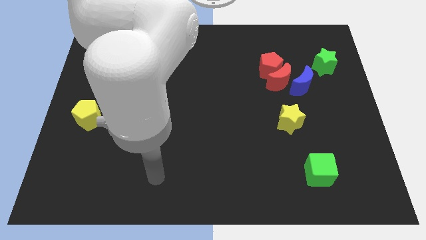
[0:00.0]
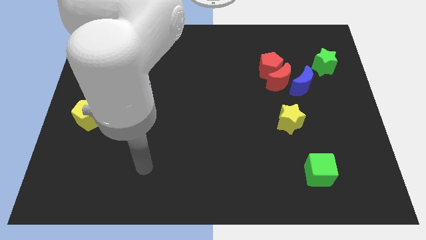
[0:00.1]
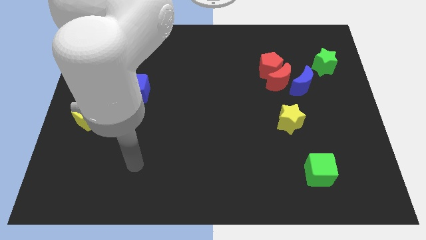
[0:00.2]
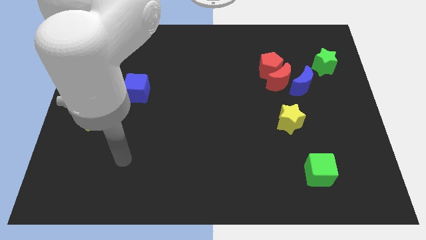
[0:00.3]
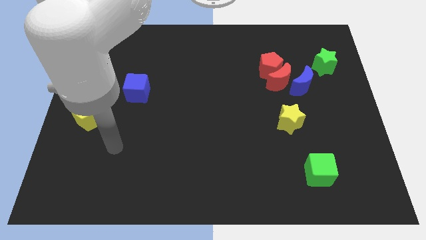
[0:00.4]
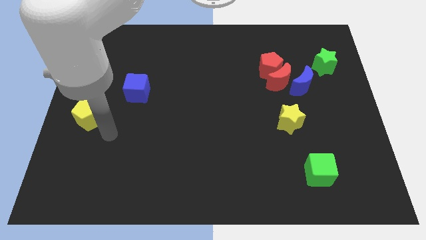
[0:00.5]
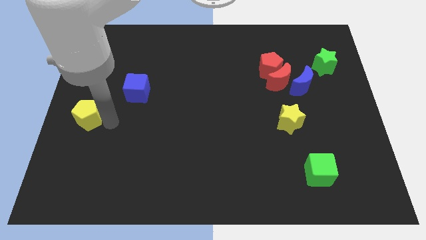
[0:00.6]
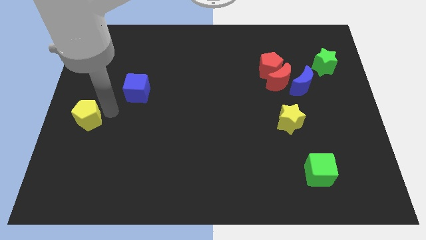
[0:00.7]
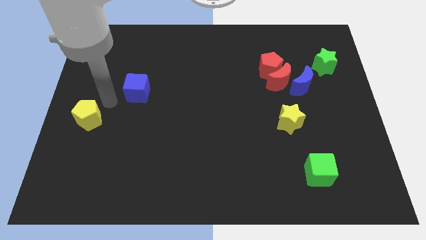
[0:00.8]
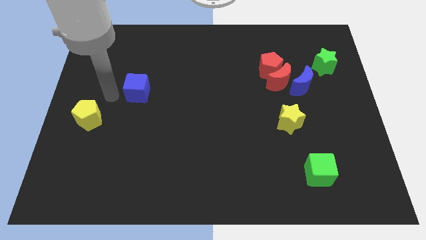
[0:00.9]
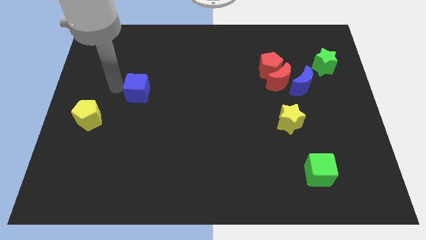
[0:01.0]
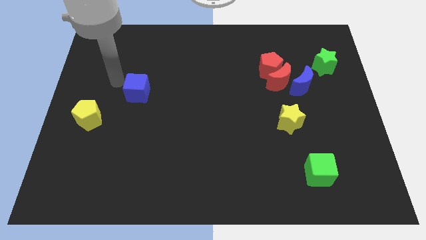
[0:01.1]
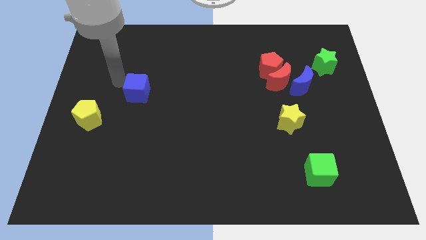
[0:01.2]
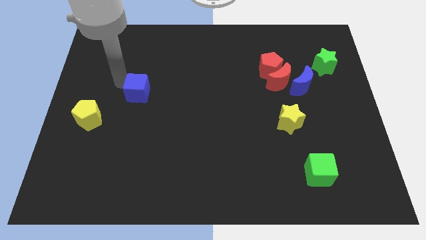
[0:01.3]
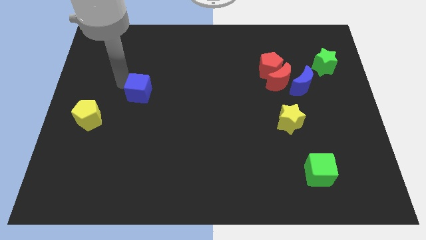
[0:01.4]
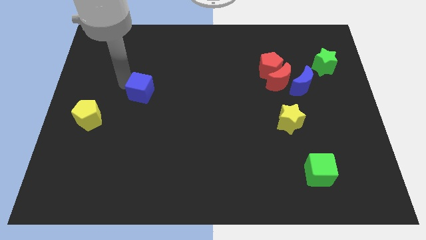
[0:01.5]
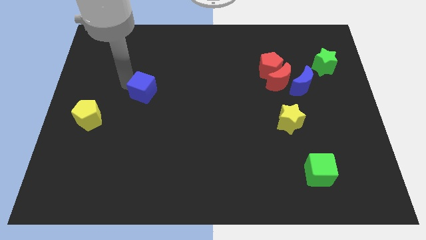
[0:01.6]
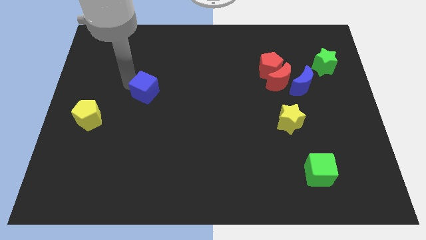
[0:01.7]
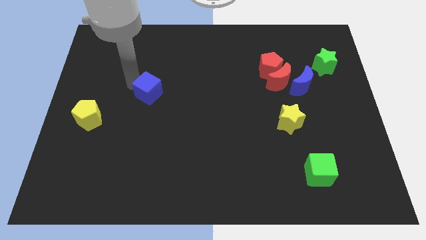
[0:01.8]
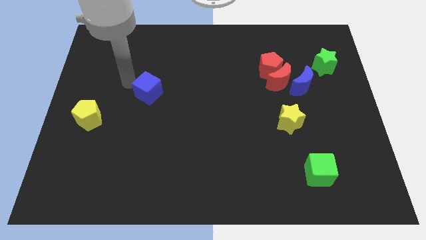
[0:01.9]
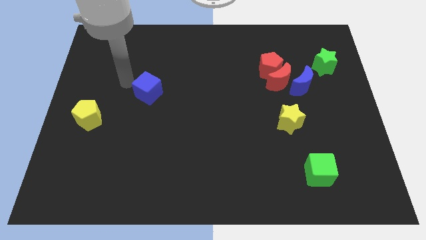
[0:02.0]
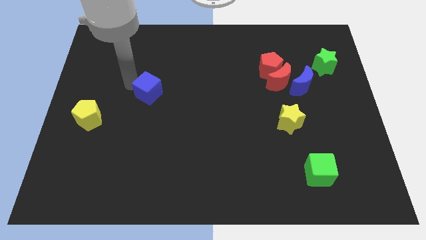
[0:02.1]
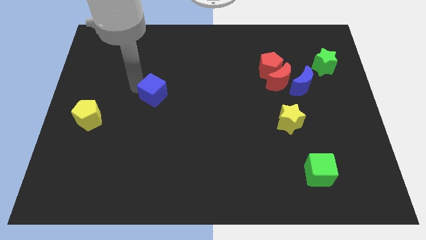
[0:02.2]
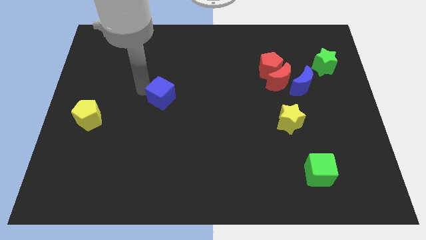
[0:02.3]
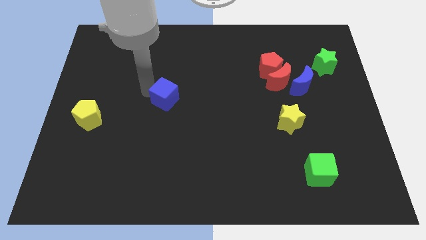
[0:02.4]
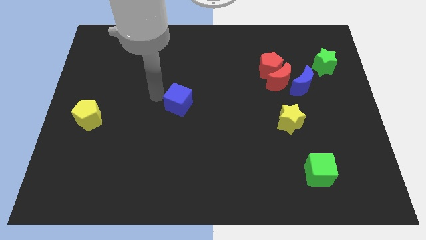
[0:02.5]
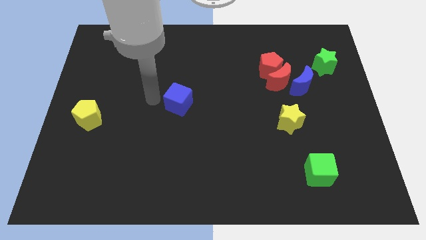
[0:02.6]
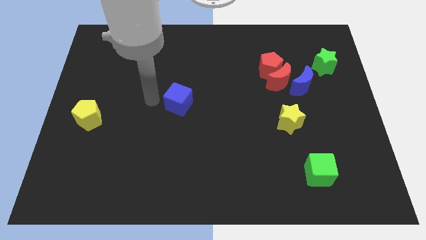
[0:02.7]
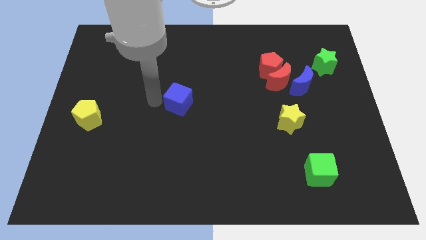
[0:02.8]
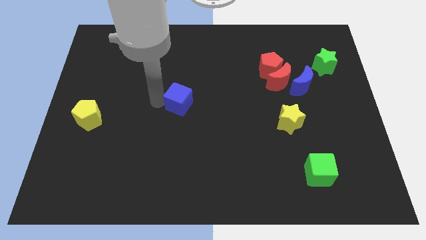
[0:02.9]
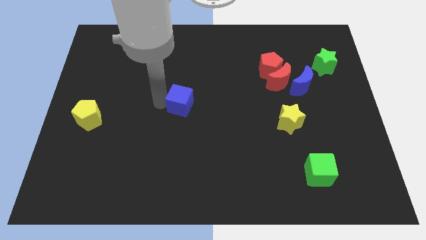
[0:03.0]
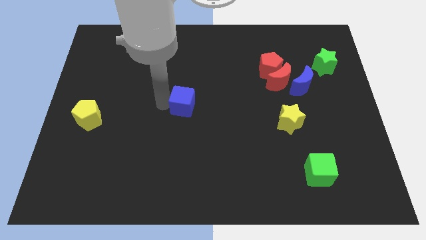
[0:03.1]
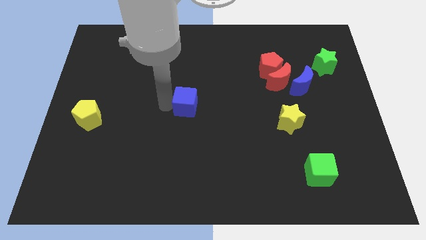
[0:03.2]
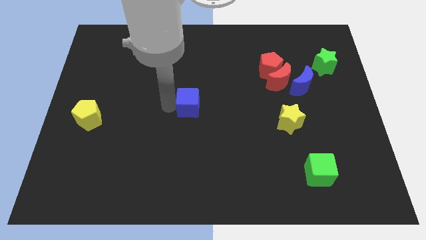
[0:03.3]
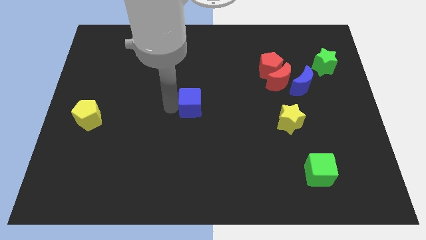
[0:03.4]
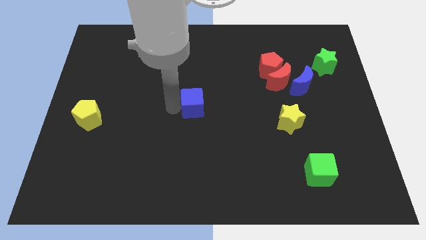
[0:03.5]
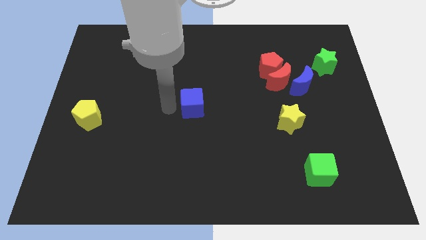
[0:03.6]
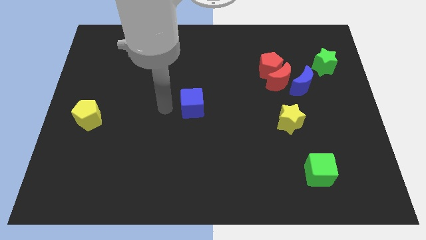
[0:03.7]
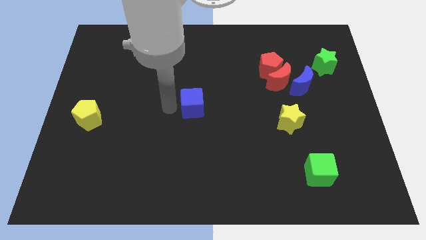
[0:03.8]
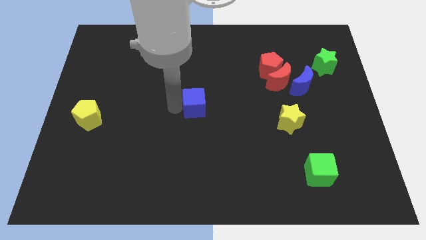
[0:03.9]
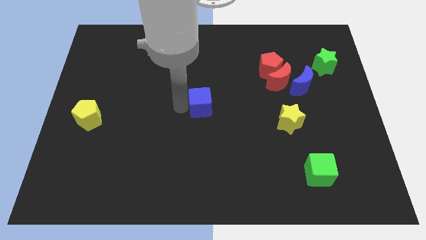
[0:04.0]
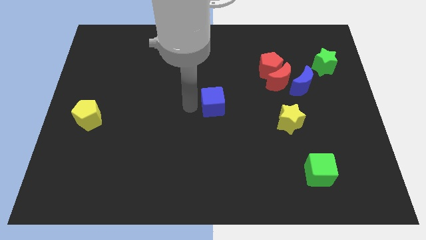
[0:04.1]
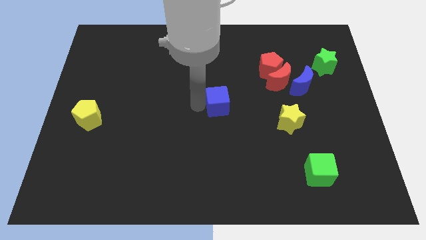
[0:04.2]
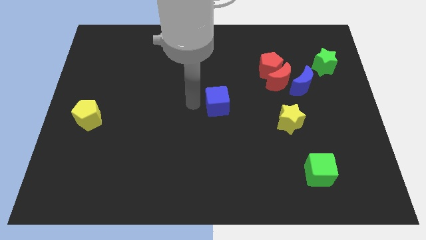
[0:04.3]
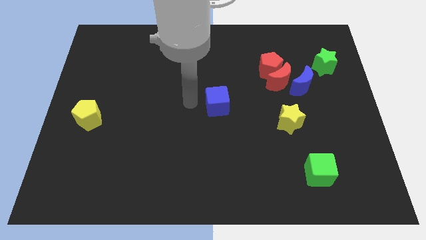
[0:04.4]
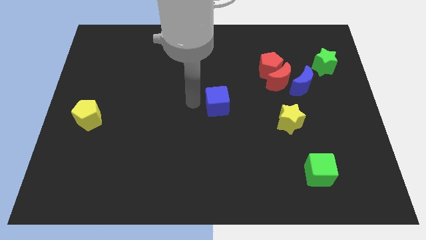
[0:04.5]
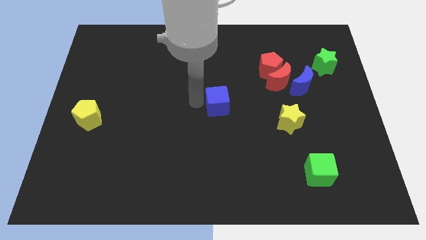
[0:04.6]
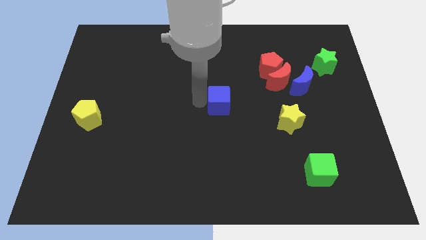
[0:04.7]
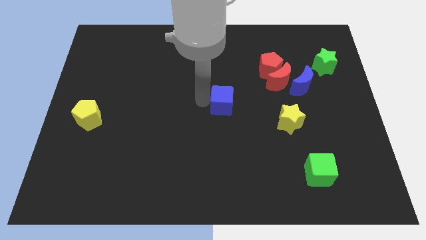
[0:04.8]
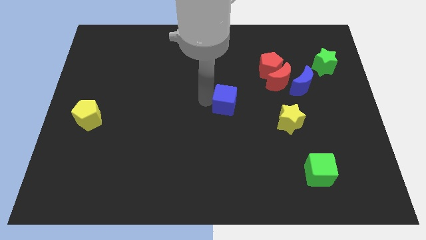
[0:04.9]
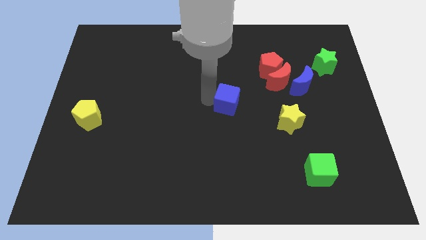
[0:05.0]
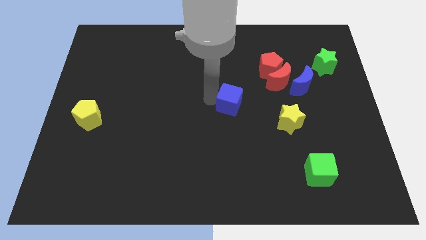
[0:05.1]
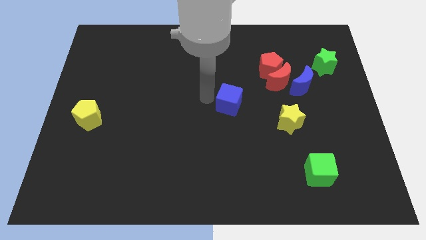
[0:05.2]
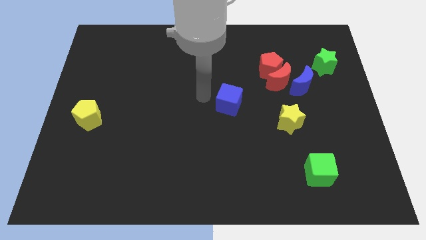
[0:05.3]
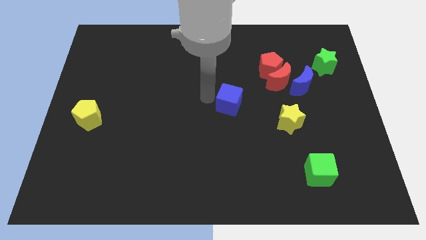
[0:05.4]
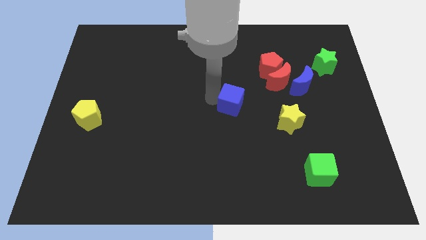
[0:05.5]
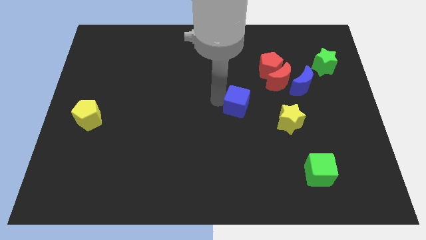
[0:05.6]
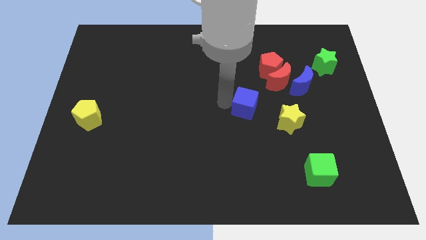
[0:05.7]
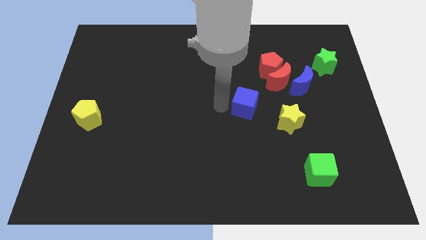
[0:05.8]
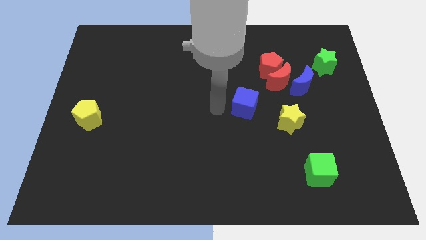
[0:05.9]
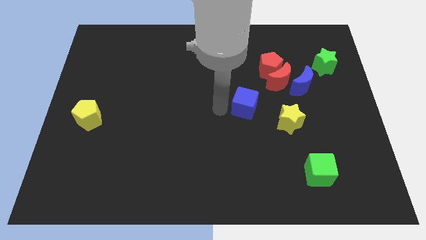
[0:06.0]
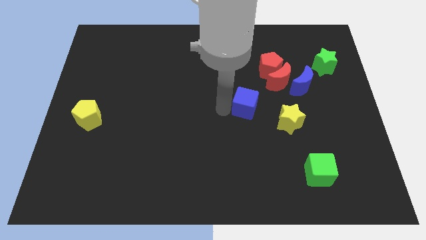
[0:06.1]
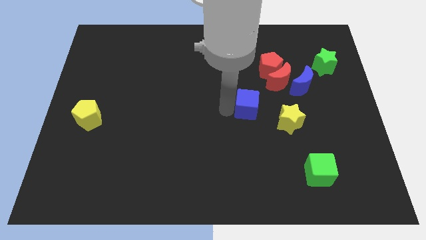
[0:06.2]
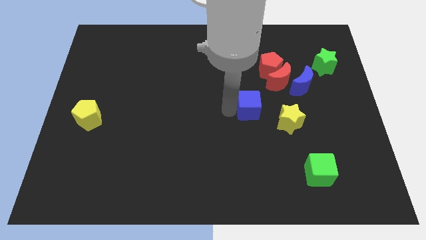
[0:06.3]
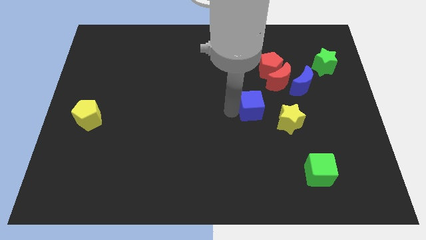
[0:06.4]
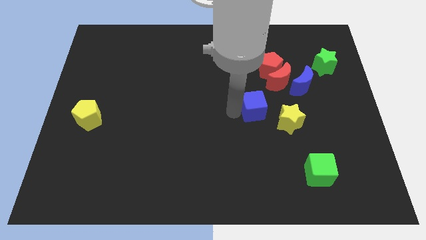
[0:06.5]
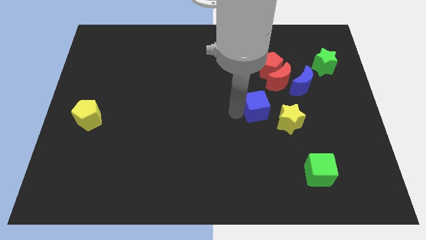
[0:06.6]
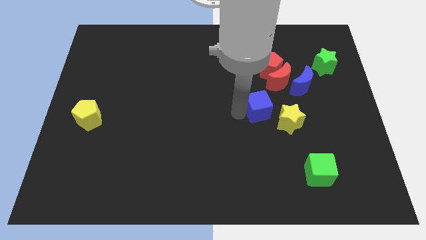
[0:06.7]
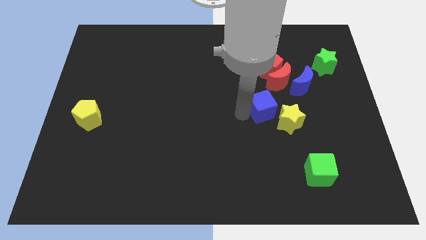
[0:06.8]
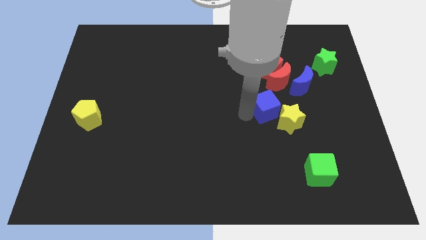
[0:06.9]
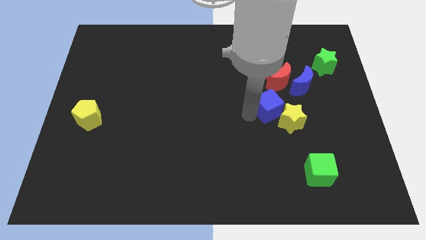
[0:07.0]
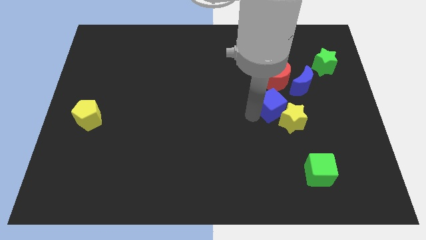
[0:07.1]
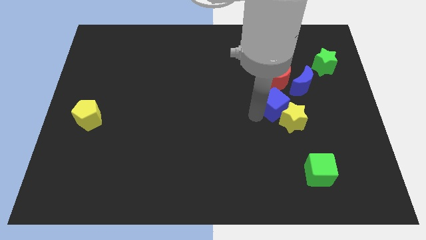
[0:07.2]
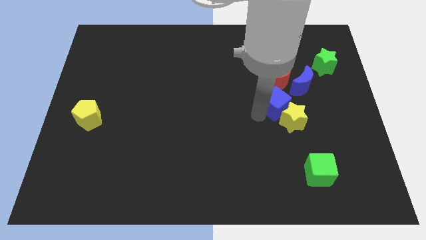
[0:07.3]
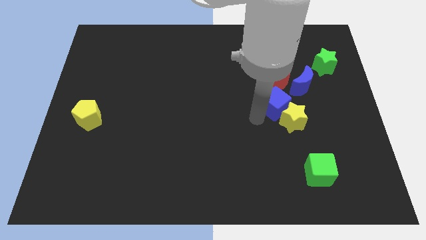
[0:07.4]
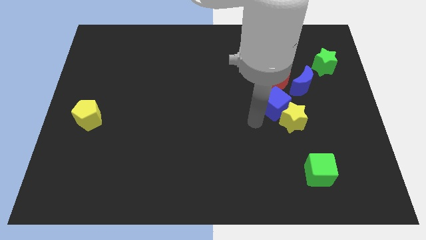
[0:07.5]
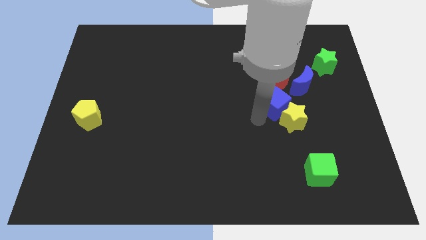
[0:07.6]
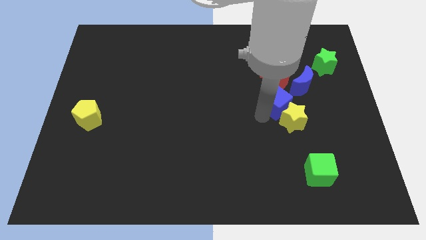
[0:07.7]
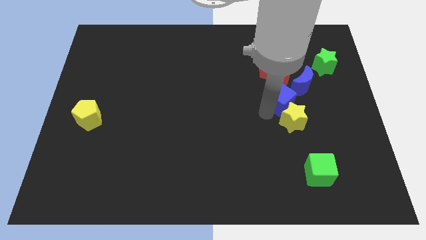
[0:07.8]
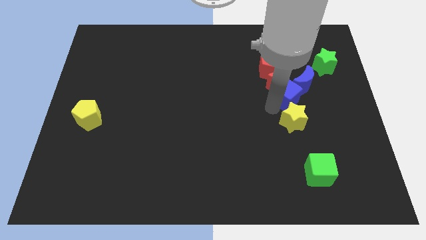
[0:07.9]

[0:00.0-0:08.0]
push the blue cube next to the blue moon

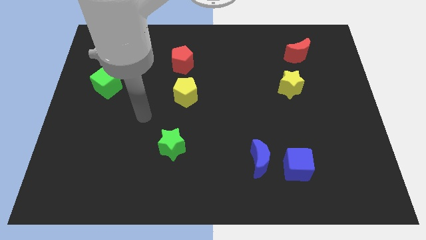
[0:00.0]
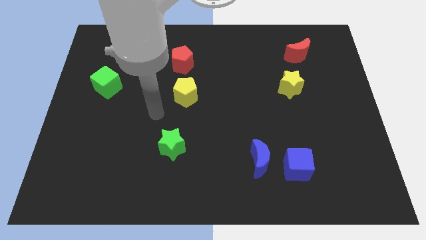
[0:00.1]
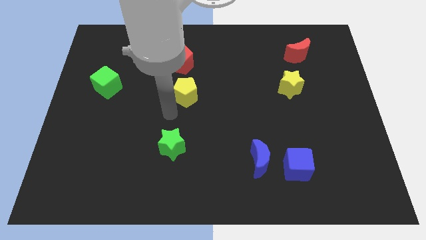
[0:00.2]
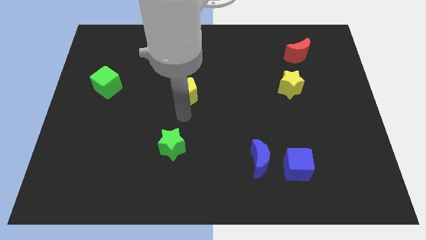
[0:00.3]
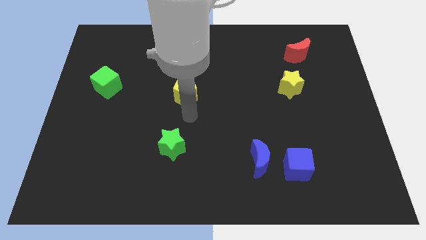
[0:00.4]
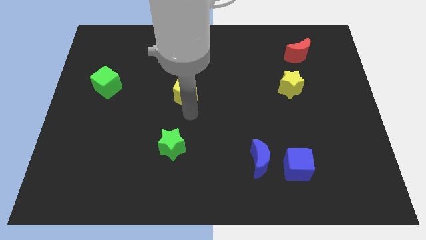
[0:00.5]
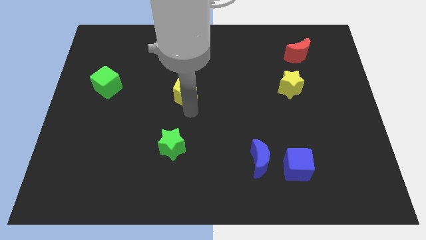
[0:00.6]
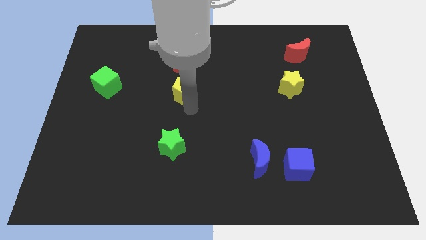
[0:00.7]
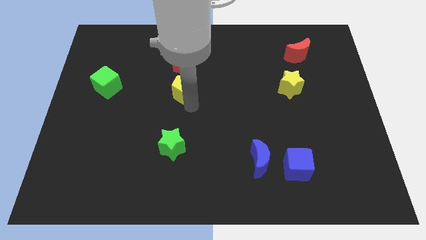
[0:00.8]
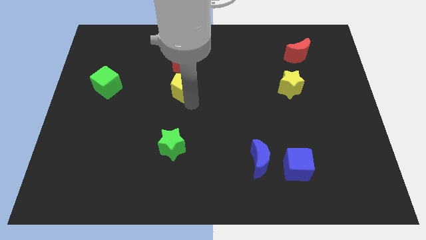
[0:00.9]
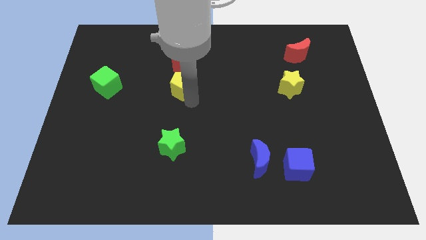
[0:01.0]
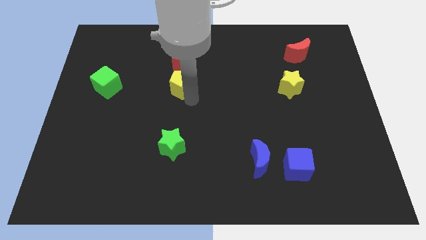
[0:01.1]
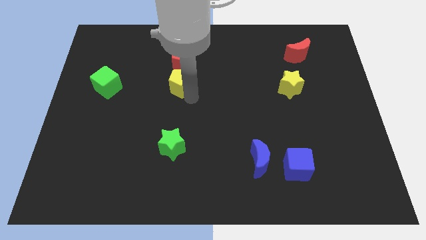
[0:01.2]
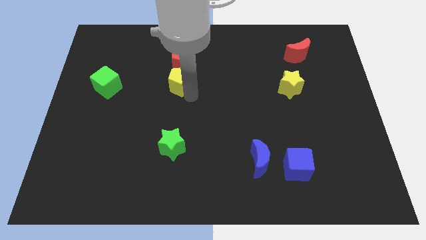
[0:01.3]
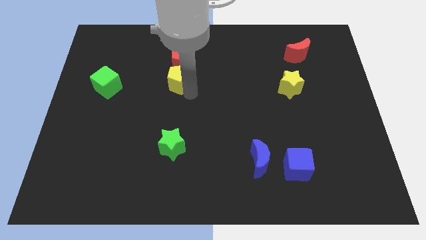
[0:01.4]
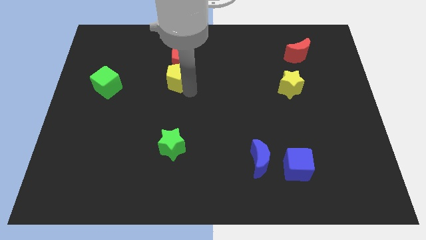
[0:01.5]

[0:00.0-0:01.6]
push the yellow pentagon to the red pentagon
